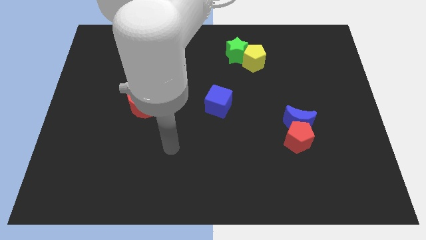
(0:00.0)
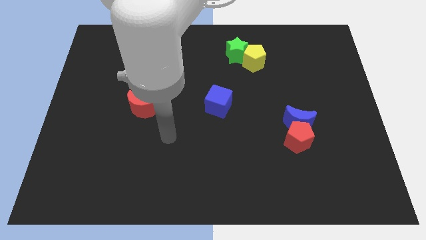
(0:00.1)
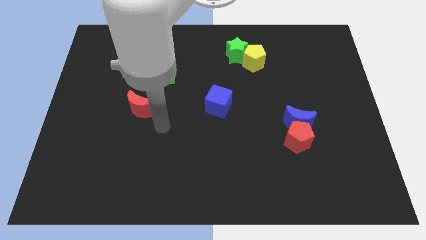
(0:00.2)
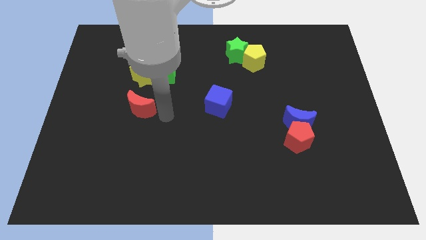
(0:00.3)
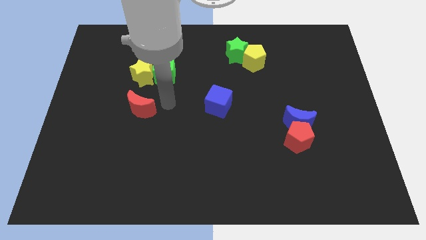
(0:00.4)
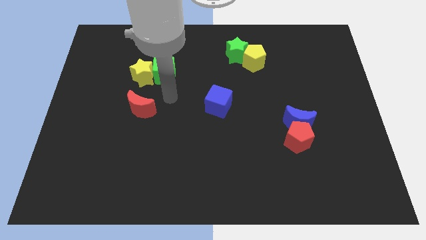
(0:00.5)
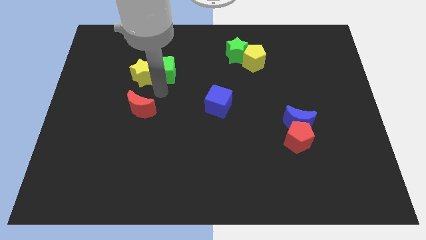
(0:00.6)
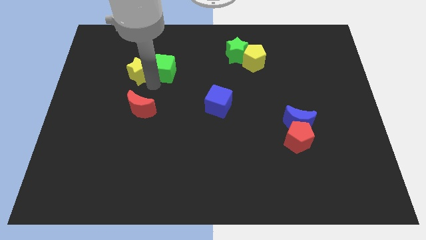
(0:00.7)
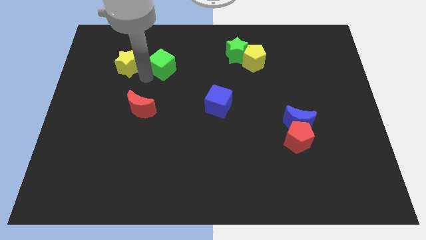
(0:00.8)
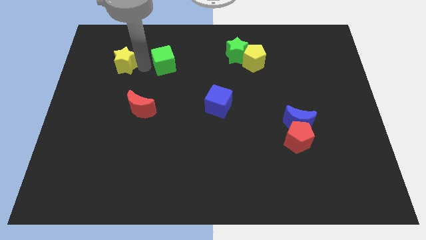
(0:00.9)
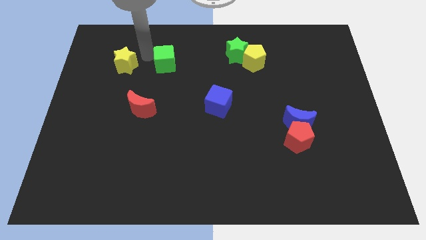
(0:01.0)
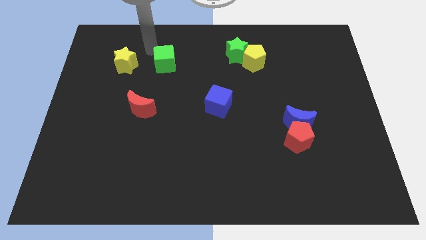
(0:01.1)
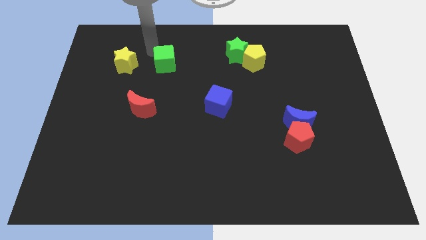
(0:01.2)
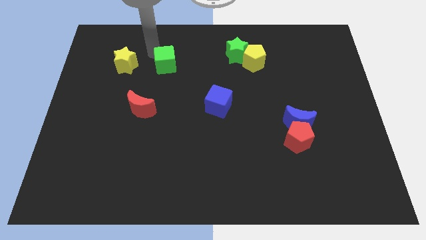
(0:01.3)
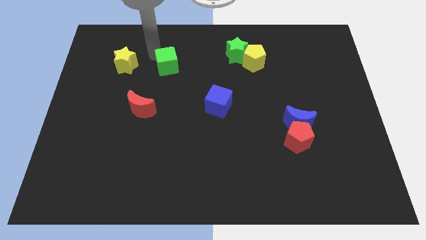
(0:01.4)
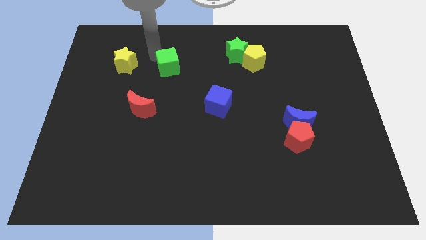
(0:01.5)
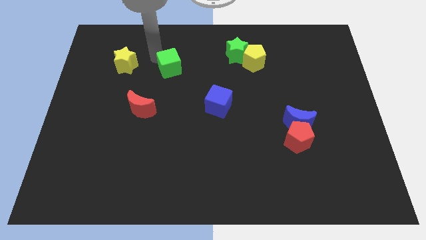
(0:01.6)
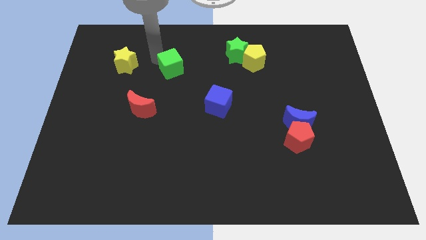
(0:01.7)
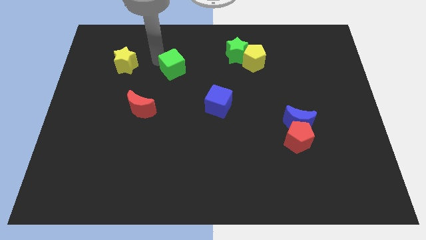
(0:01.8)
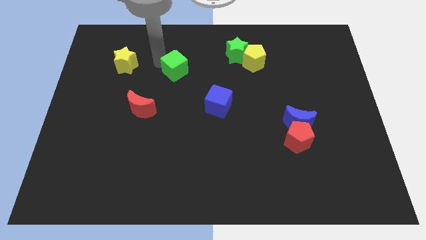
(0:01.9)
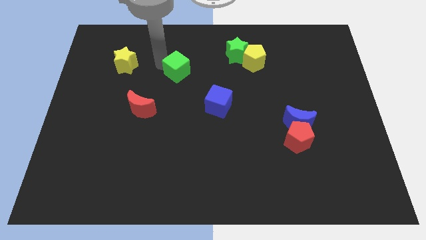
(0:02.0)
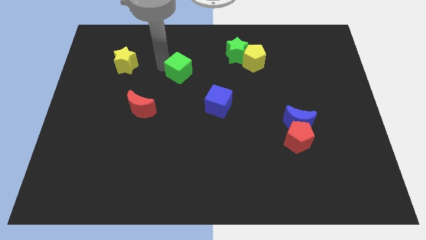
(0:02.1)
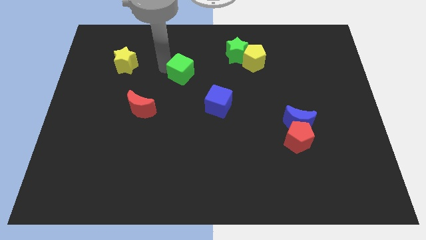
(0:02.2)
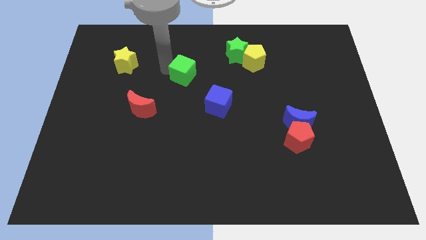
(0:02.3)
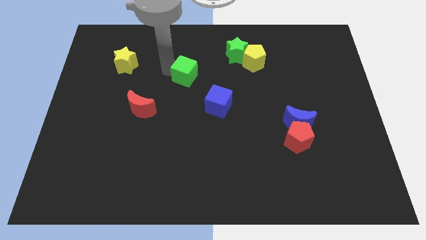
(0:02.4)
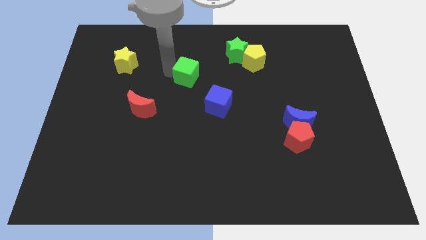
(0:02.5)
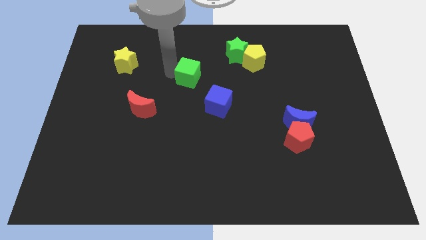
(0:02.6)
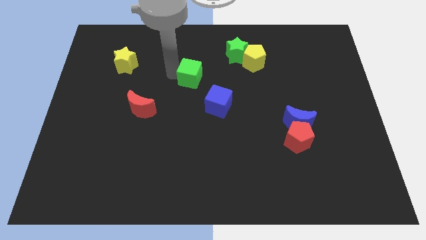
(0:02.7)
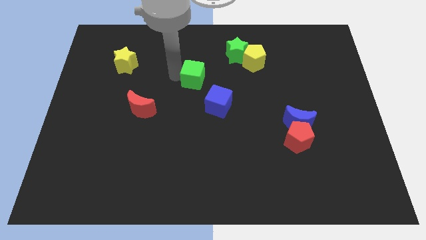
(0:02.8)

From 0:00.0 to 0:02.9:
move the green cube to the right somewhat

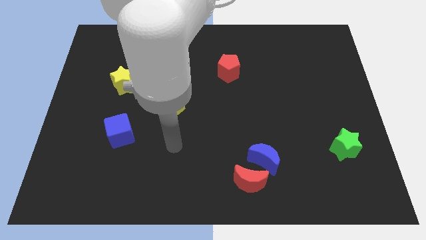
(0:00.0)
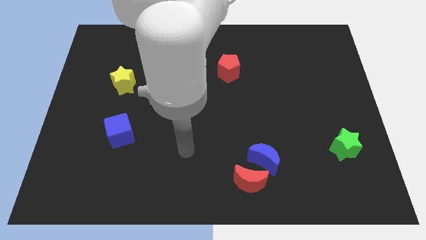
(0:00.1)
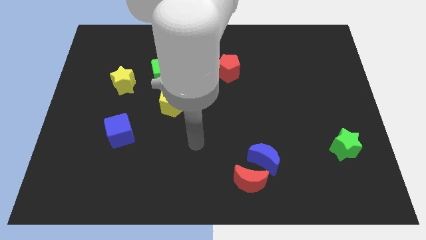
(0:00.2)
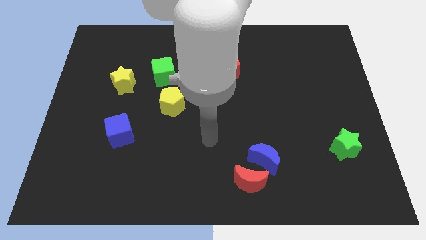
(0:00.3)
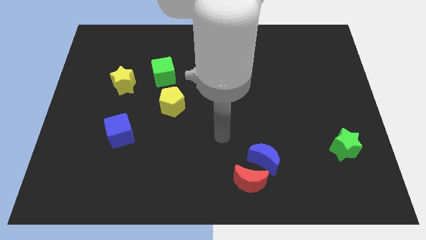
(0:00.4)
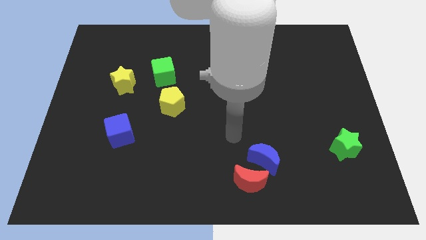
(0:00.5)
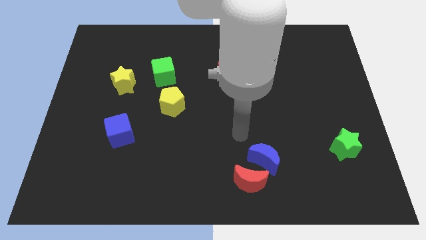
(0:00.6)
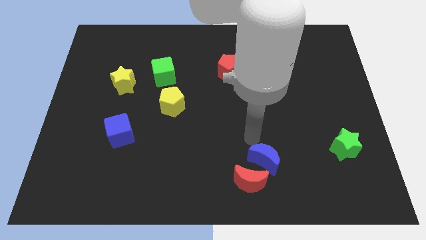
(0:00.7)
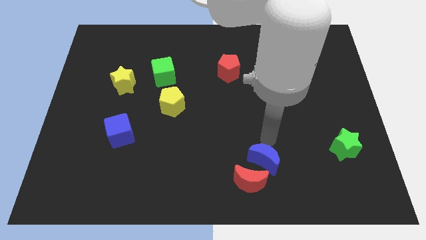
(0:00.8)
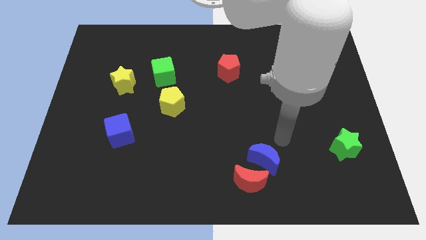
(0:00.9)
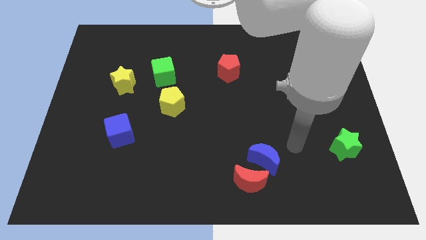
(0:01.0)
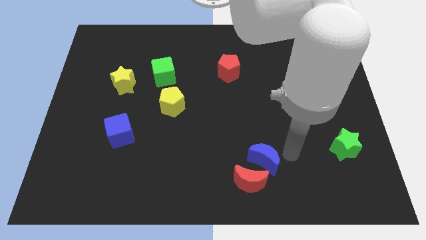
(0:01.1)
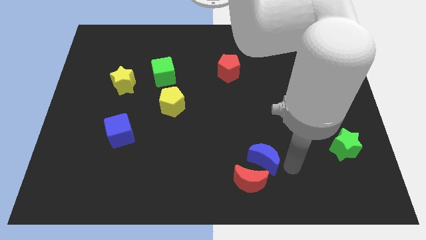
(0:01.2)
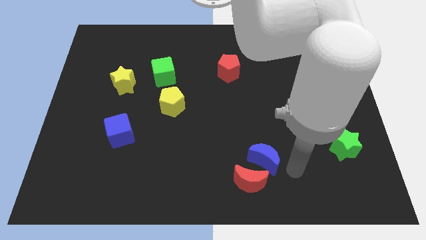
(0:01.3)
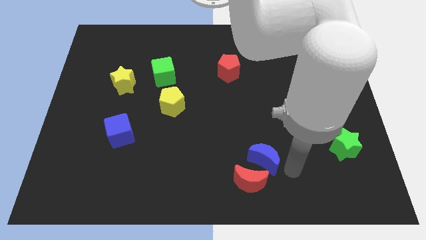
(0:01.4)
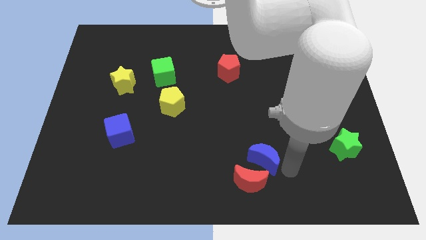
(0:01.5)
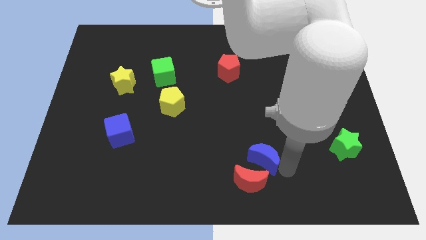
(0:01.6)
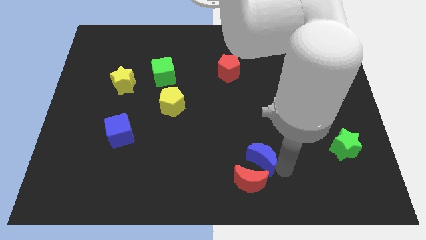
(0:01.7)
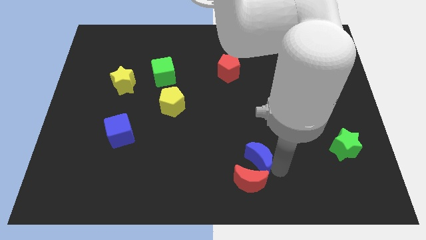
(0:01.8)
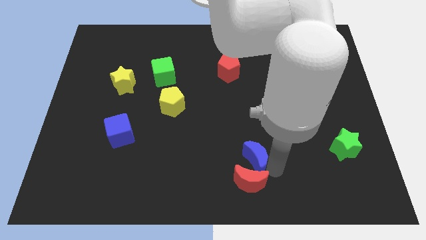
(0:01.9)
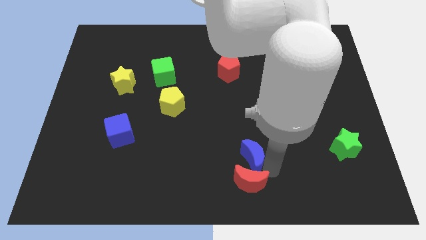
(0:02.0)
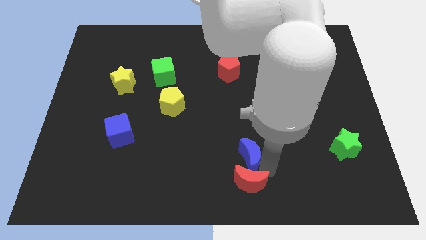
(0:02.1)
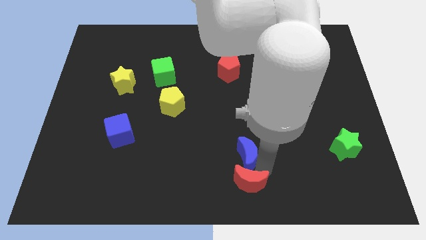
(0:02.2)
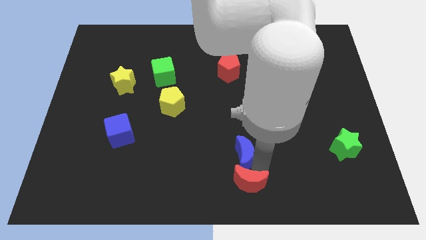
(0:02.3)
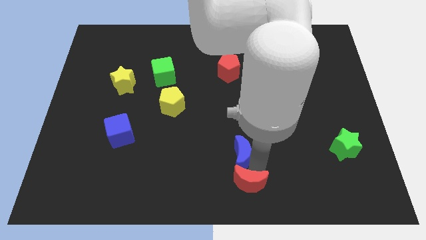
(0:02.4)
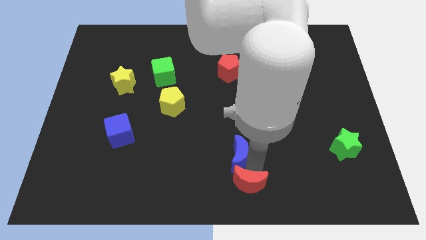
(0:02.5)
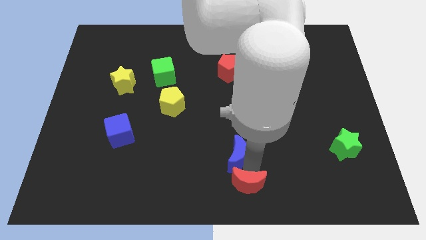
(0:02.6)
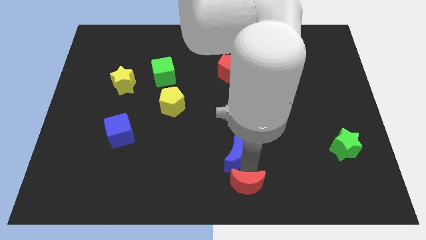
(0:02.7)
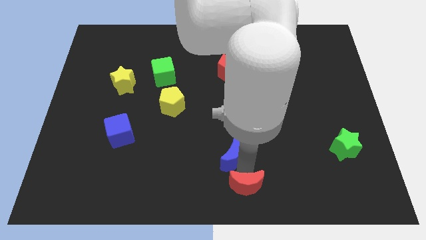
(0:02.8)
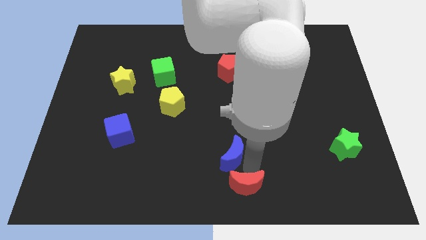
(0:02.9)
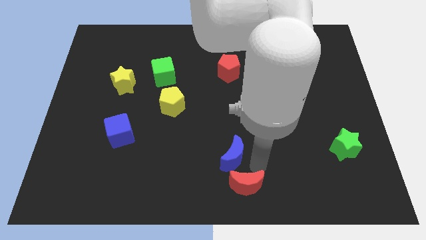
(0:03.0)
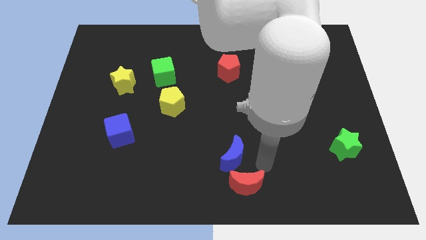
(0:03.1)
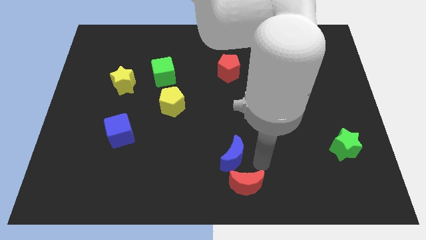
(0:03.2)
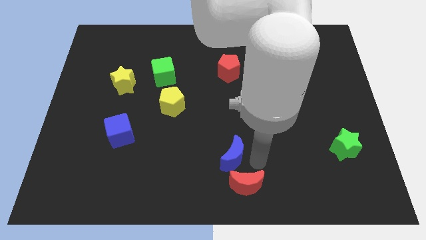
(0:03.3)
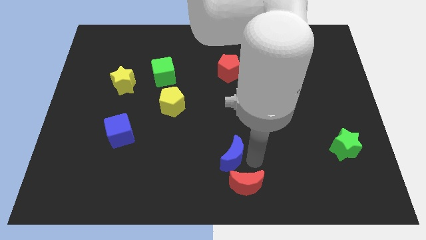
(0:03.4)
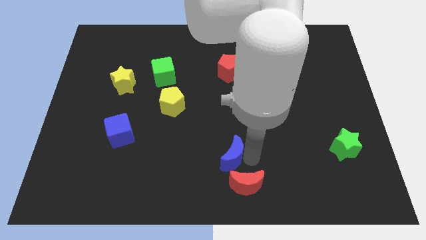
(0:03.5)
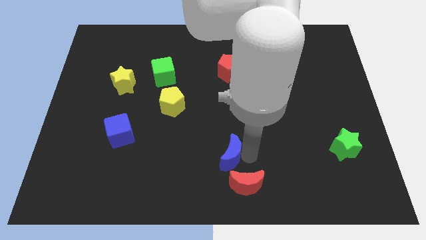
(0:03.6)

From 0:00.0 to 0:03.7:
move the blue moon a little left

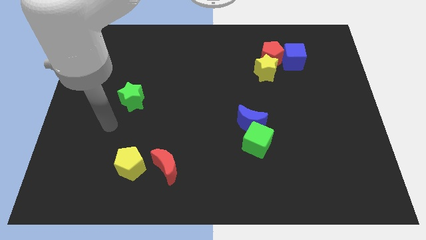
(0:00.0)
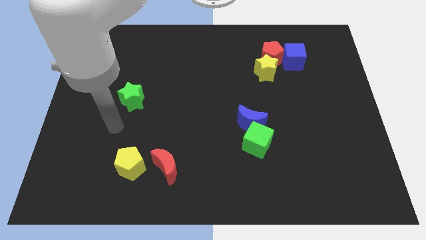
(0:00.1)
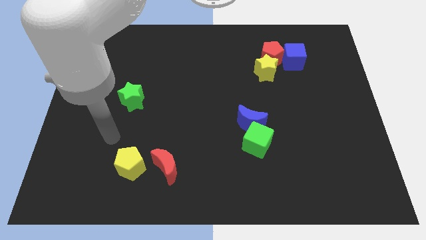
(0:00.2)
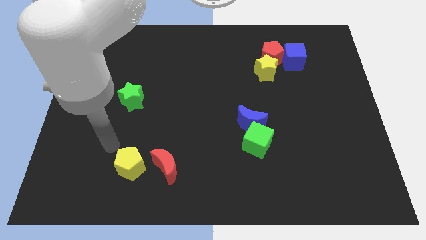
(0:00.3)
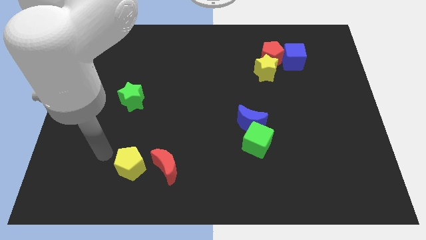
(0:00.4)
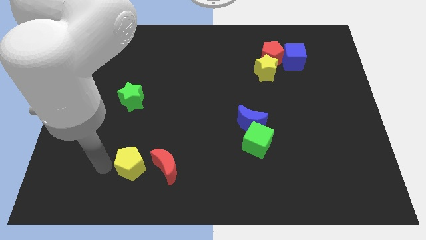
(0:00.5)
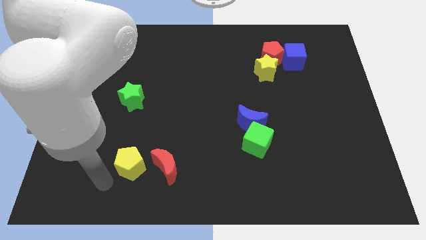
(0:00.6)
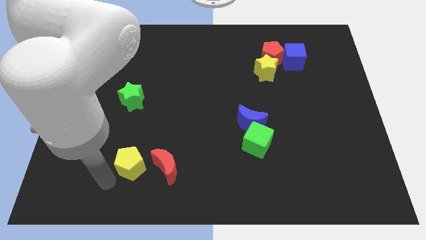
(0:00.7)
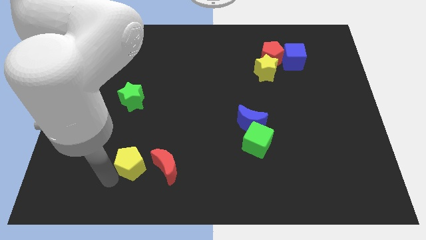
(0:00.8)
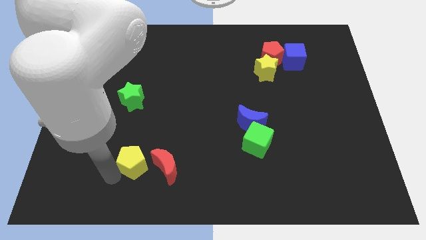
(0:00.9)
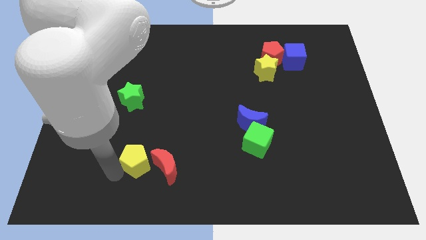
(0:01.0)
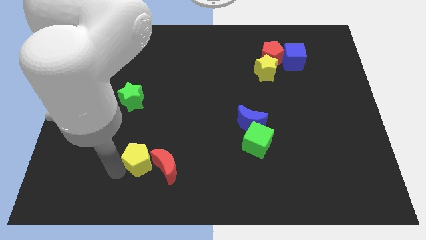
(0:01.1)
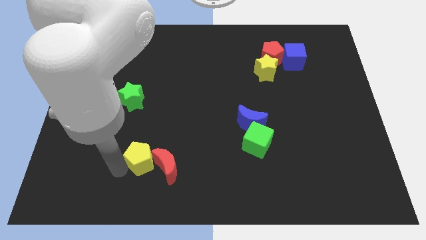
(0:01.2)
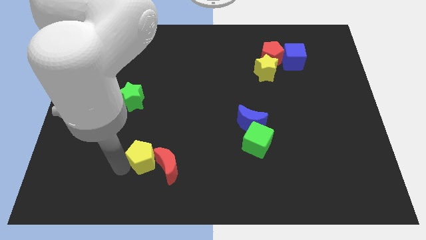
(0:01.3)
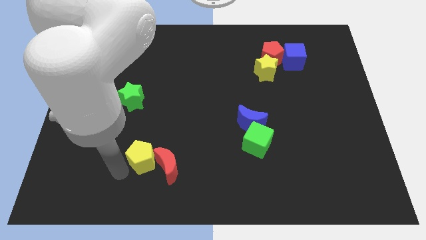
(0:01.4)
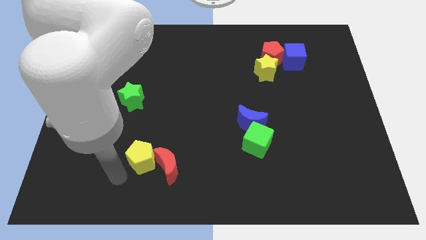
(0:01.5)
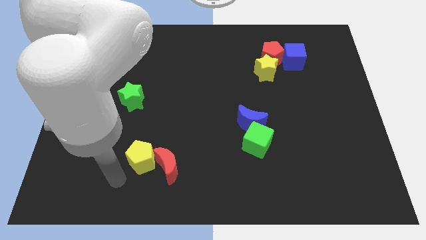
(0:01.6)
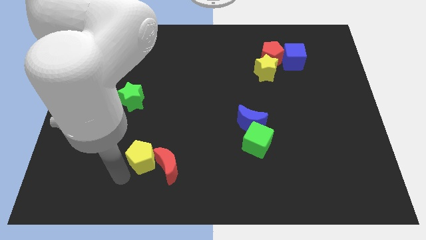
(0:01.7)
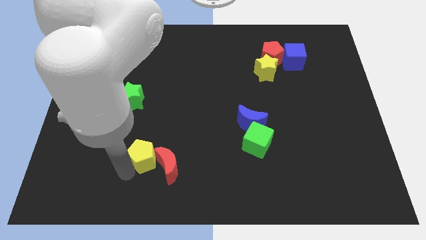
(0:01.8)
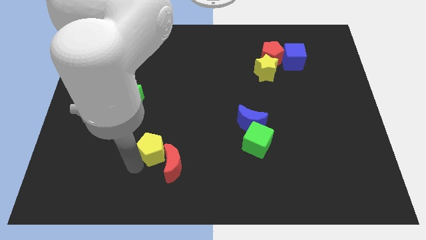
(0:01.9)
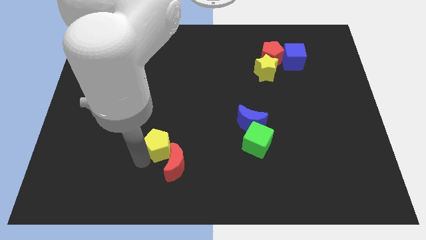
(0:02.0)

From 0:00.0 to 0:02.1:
slide the yellow pentagon upwards and to the right a little
